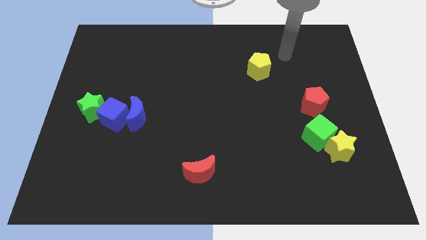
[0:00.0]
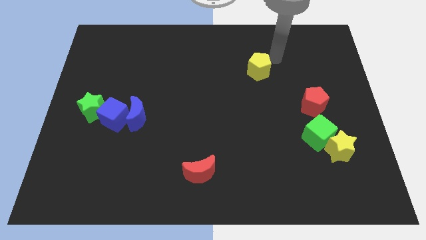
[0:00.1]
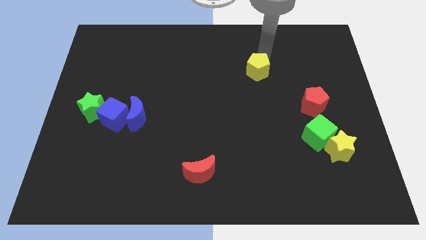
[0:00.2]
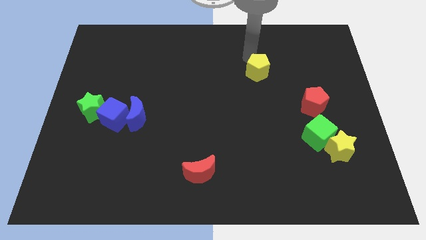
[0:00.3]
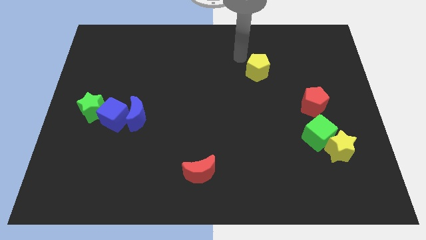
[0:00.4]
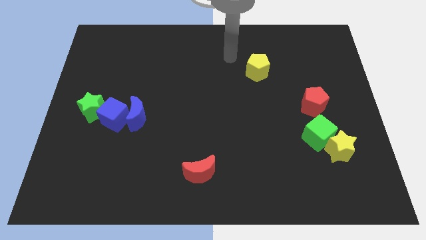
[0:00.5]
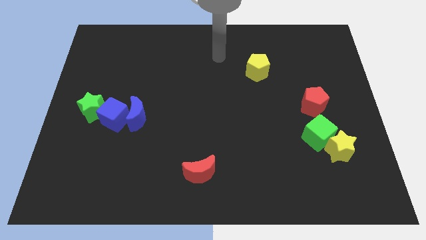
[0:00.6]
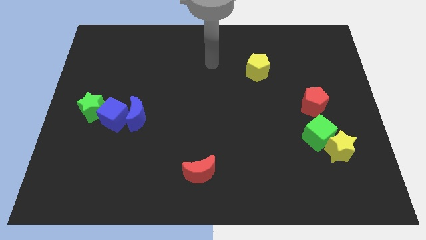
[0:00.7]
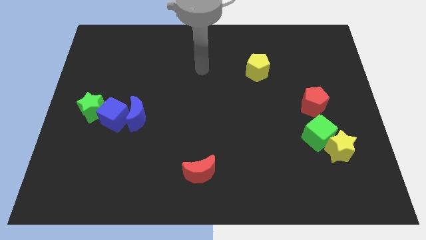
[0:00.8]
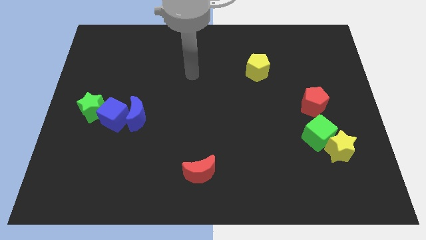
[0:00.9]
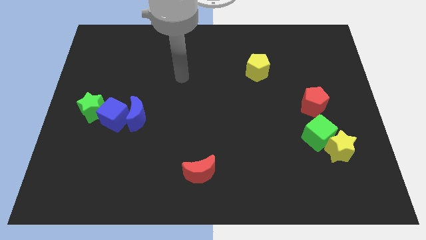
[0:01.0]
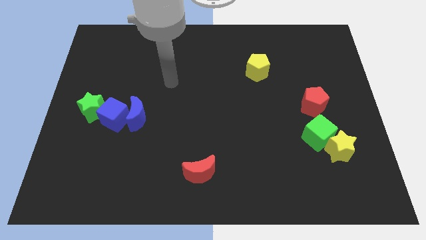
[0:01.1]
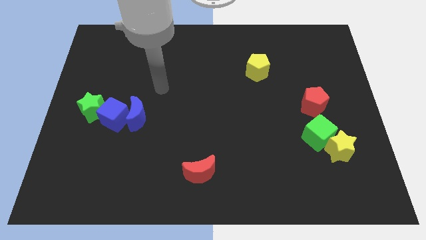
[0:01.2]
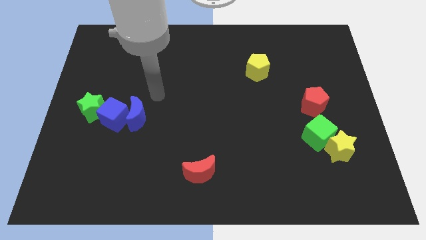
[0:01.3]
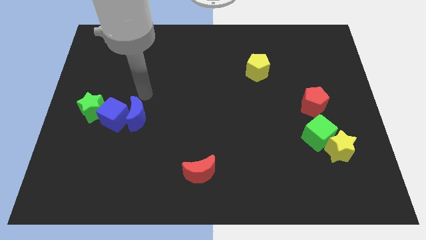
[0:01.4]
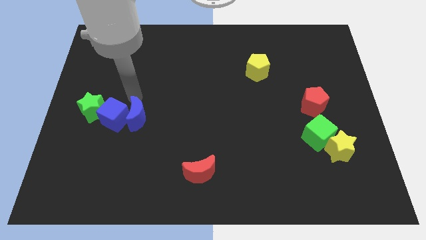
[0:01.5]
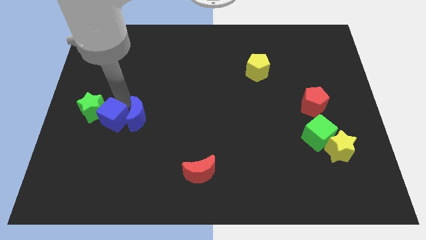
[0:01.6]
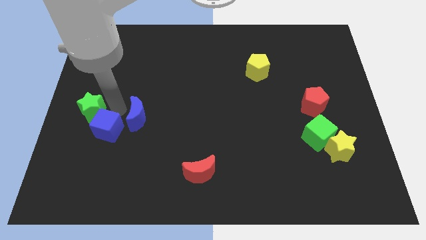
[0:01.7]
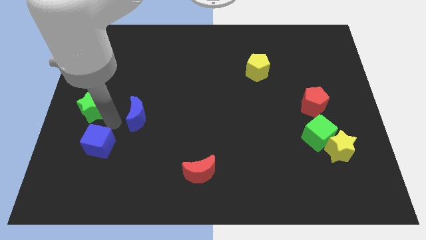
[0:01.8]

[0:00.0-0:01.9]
separate the blue moon from the blue cube

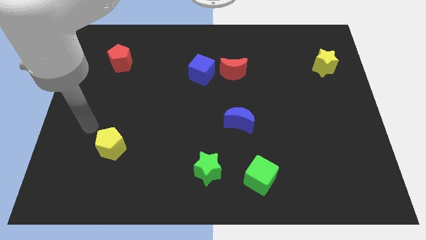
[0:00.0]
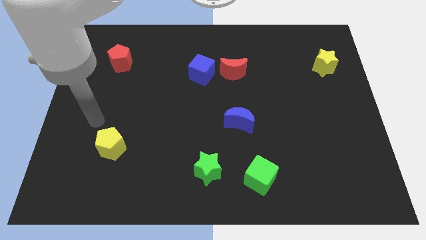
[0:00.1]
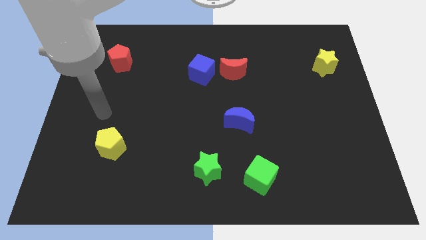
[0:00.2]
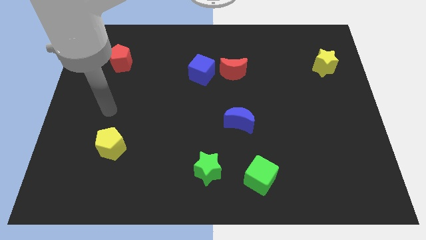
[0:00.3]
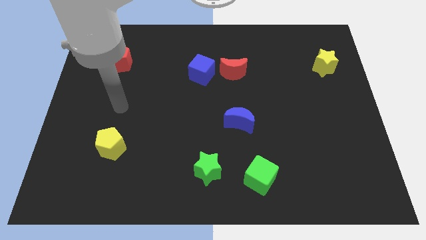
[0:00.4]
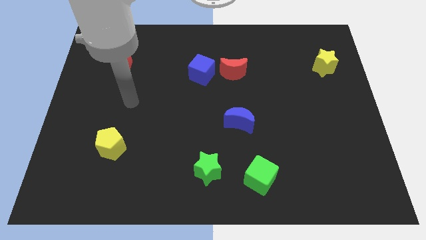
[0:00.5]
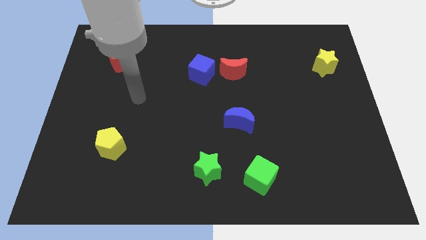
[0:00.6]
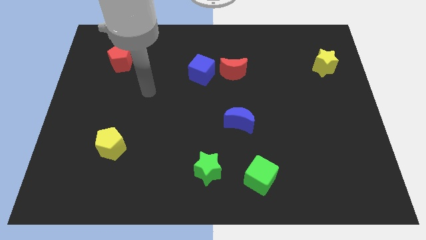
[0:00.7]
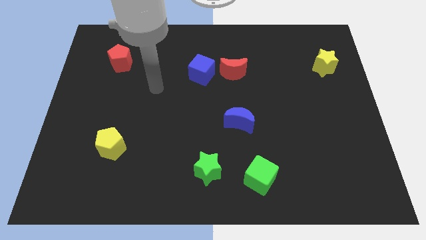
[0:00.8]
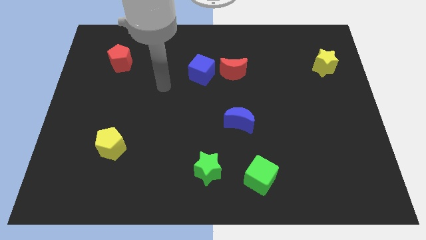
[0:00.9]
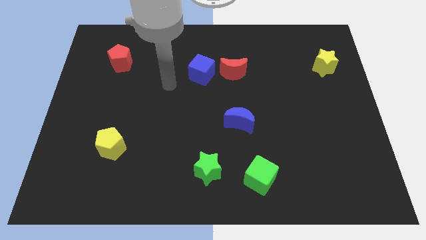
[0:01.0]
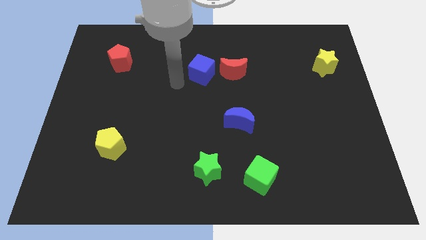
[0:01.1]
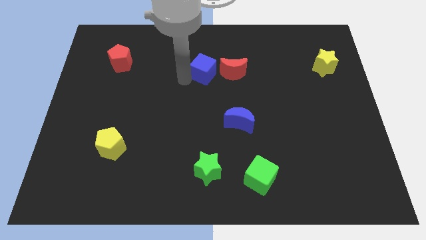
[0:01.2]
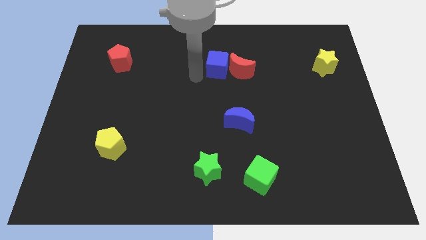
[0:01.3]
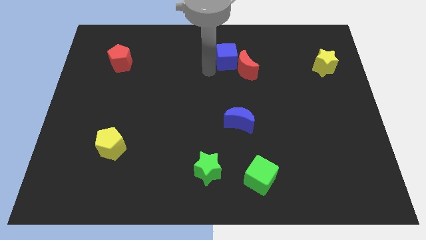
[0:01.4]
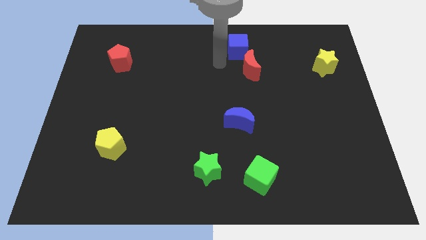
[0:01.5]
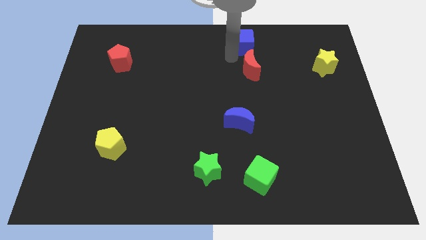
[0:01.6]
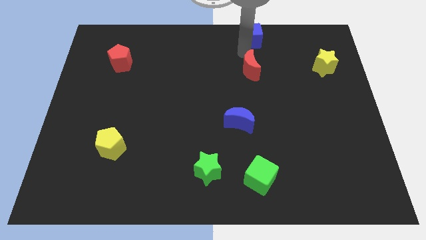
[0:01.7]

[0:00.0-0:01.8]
move the red moon away from the blue cube

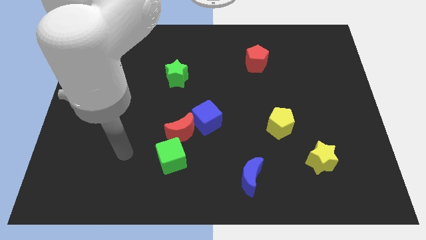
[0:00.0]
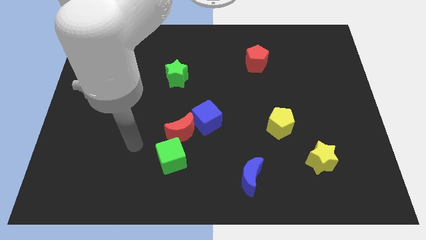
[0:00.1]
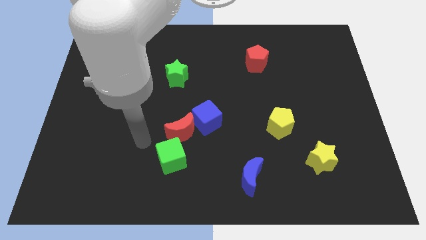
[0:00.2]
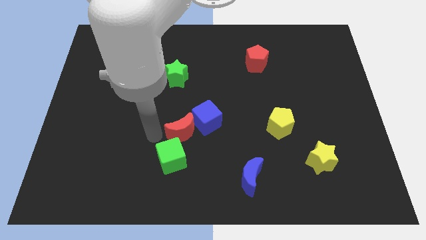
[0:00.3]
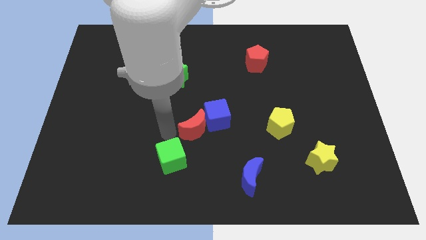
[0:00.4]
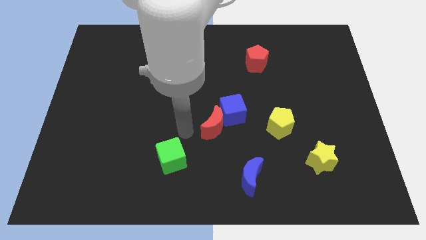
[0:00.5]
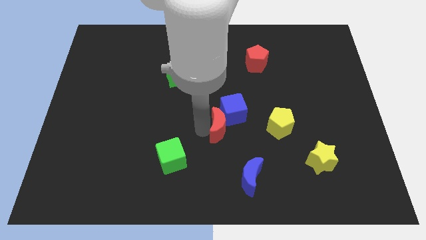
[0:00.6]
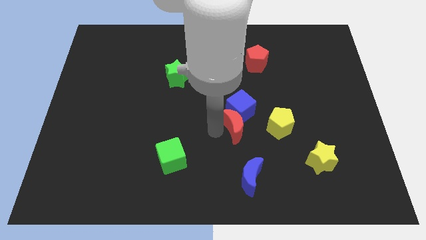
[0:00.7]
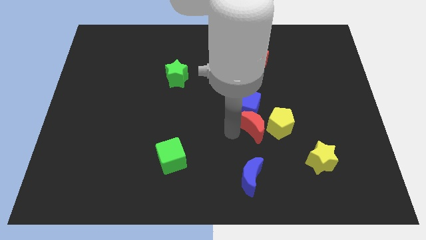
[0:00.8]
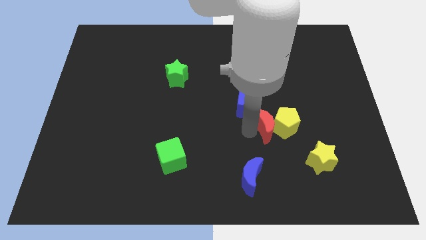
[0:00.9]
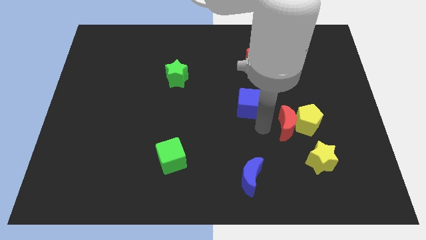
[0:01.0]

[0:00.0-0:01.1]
separate the blue cube from the red moon

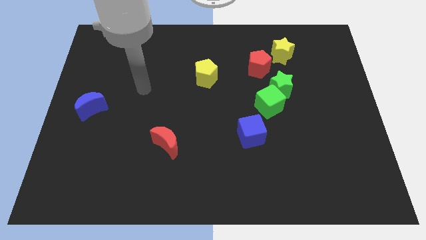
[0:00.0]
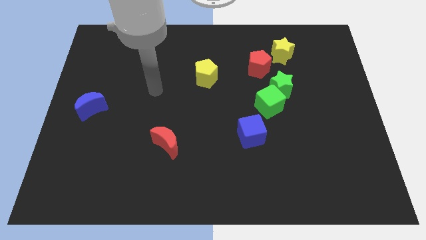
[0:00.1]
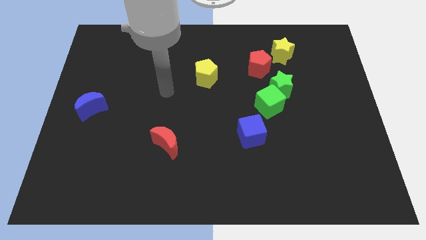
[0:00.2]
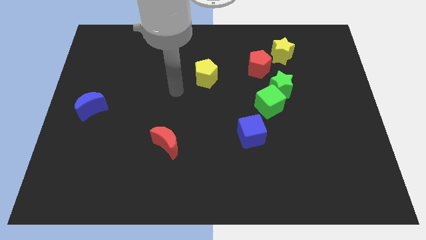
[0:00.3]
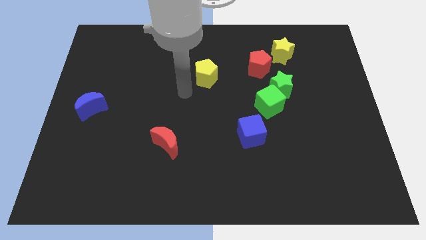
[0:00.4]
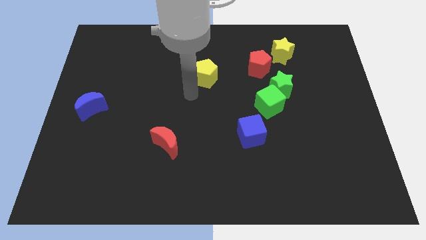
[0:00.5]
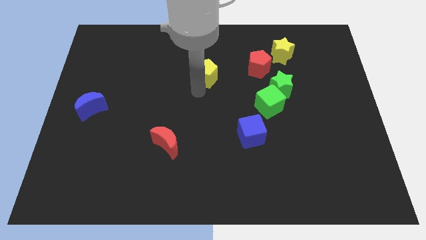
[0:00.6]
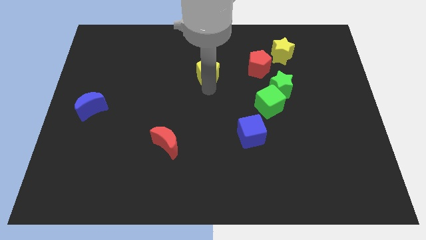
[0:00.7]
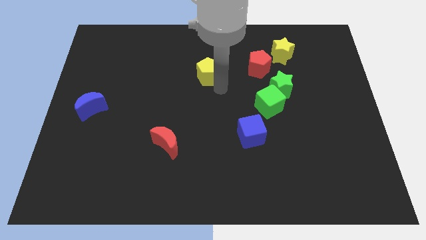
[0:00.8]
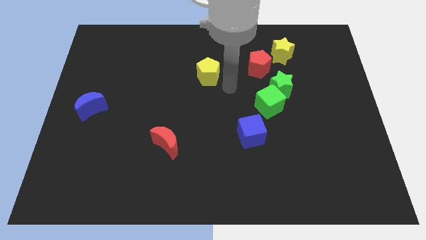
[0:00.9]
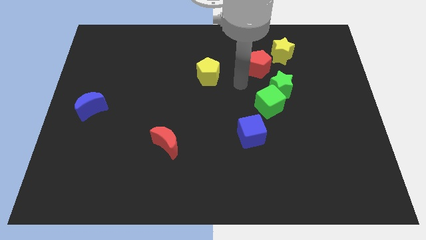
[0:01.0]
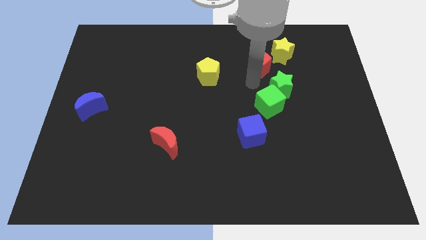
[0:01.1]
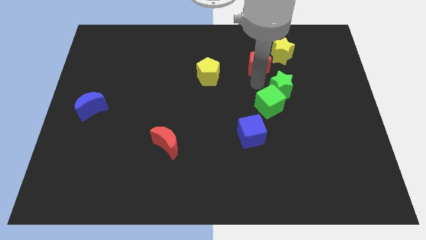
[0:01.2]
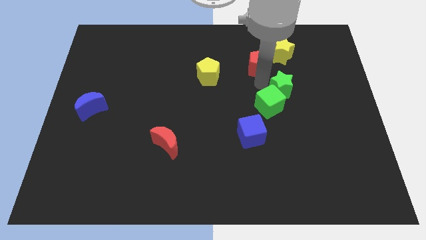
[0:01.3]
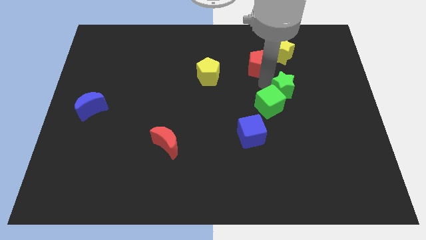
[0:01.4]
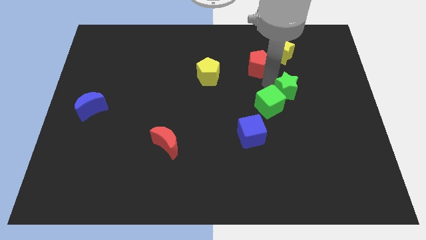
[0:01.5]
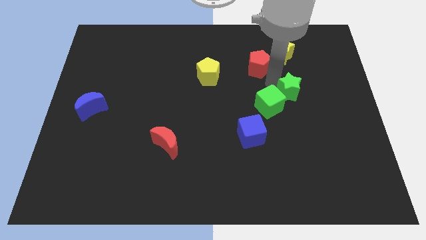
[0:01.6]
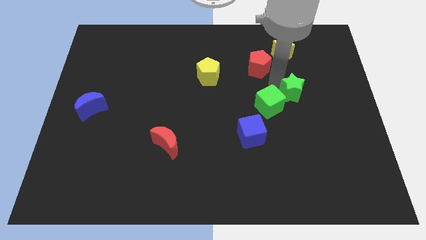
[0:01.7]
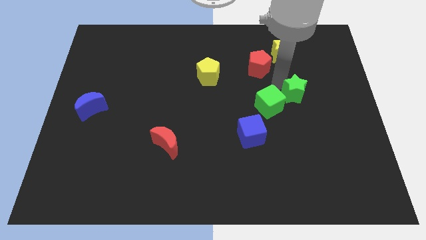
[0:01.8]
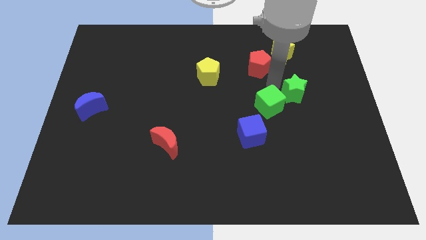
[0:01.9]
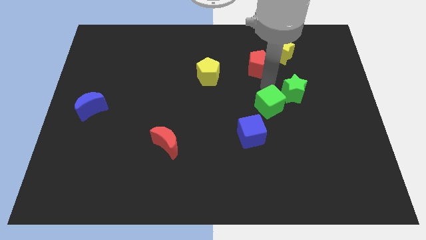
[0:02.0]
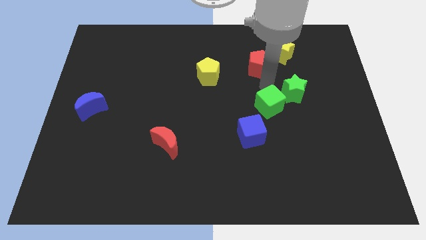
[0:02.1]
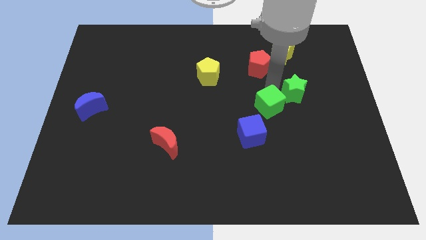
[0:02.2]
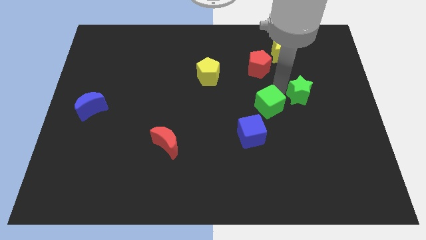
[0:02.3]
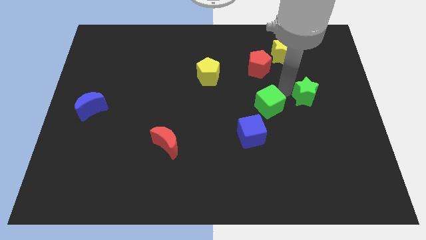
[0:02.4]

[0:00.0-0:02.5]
pull the green star apart from the green cube and red pentagon

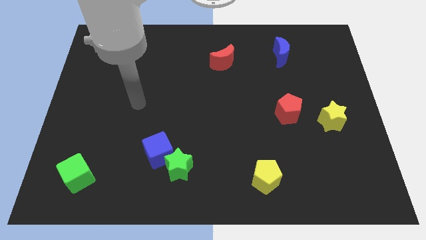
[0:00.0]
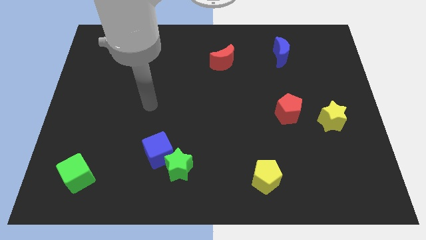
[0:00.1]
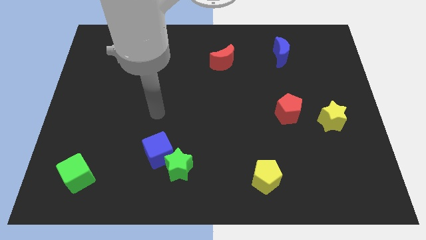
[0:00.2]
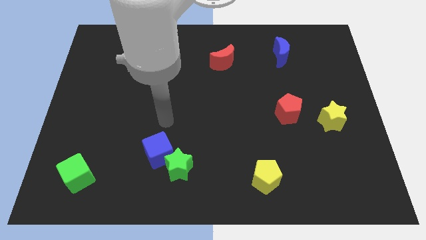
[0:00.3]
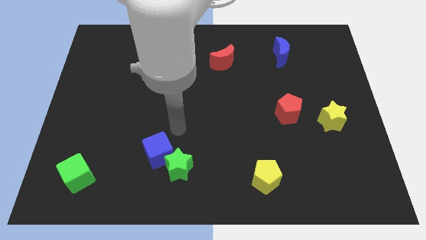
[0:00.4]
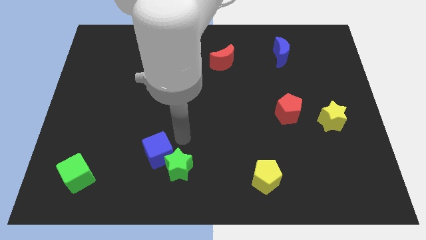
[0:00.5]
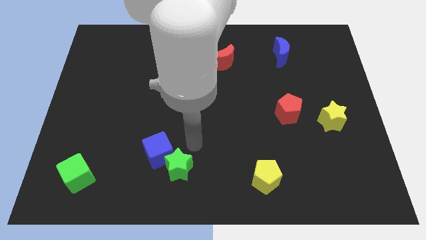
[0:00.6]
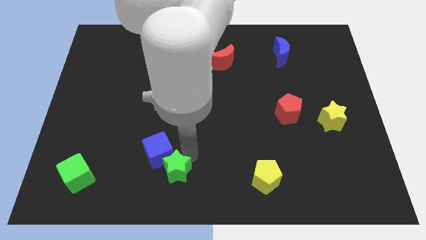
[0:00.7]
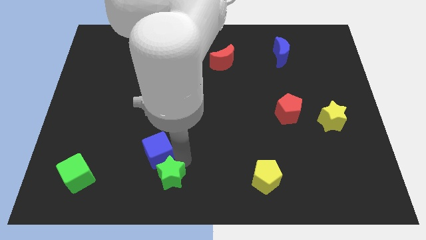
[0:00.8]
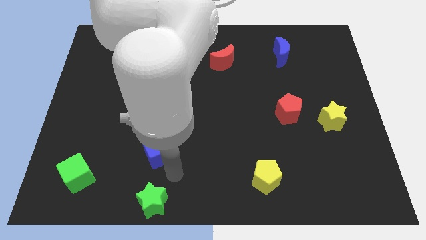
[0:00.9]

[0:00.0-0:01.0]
pull the blue cube apart from the green star

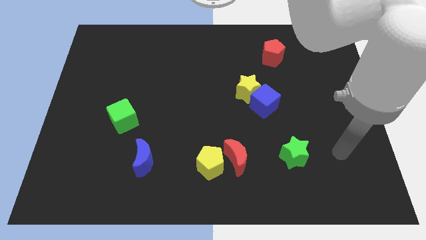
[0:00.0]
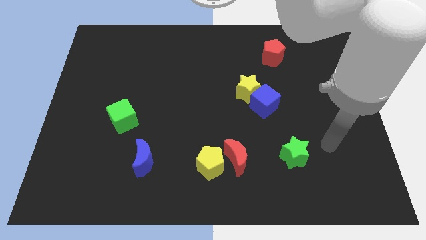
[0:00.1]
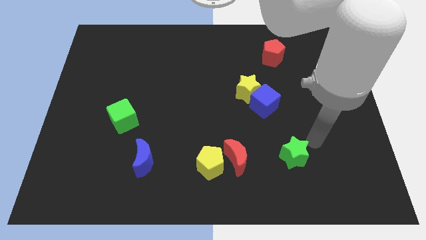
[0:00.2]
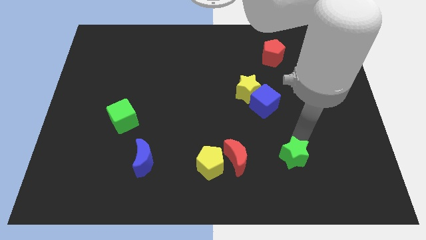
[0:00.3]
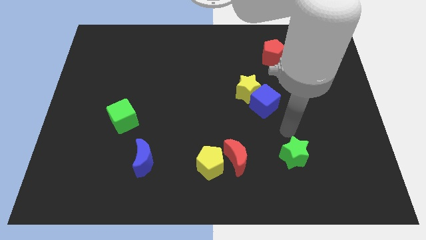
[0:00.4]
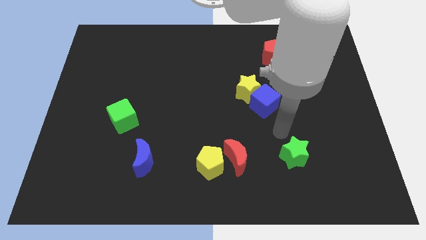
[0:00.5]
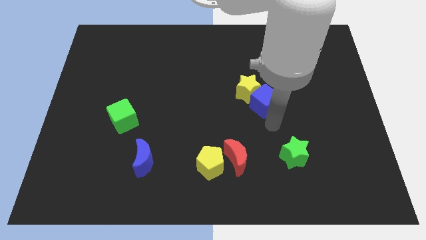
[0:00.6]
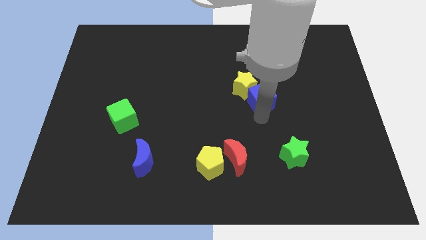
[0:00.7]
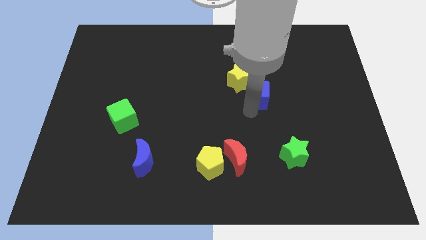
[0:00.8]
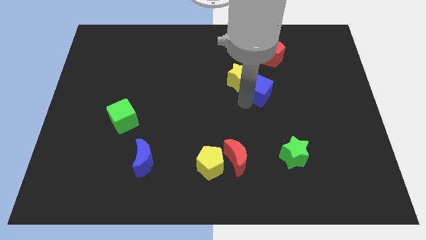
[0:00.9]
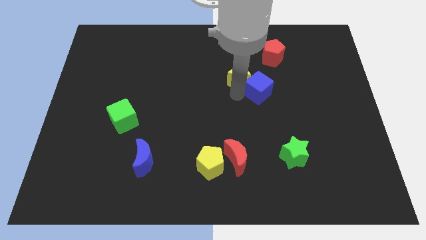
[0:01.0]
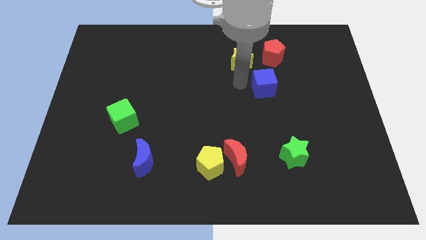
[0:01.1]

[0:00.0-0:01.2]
separate the blue cube from the yellow star
